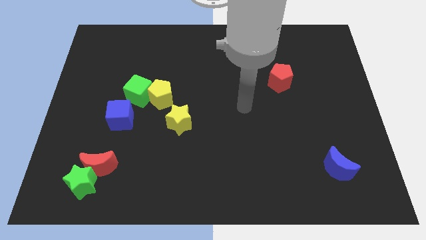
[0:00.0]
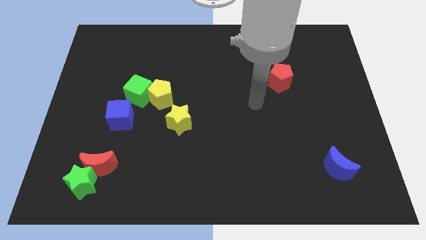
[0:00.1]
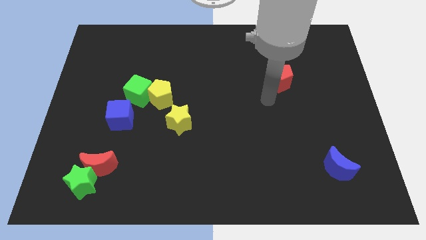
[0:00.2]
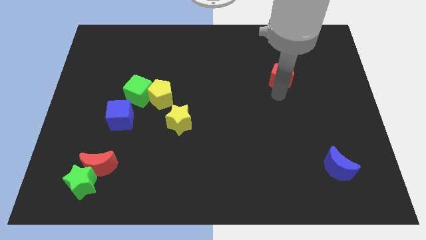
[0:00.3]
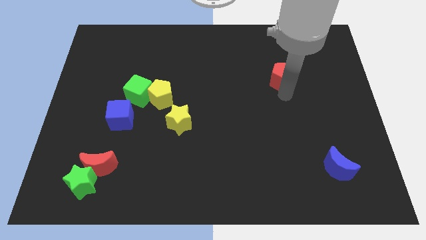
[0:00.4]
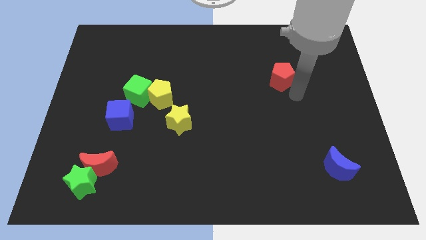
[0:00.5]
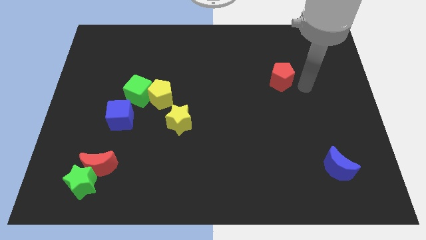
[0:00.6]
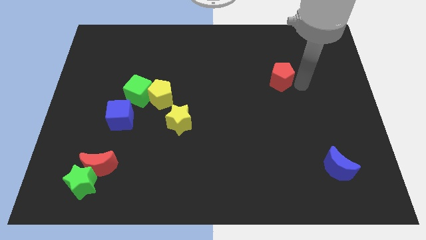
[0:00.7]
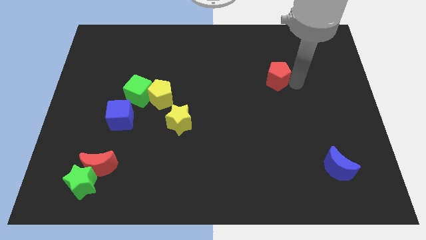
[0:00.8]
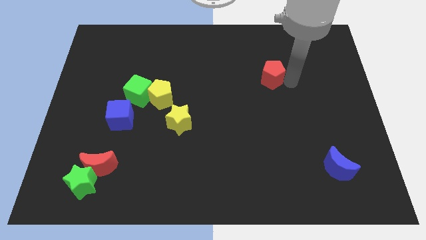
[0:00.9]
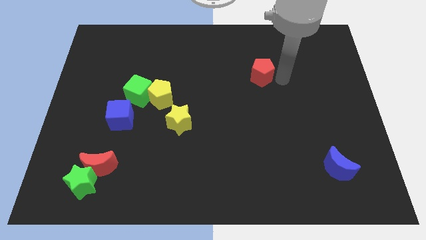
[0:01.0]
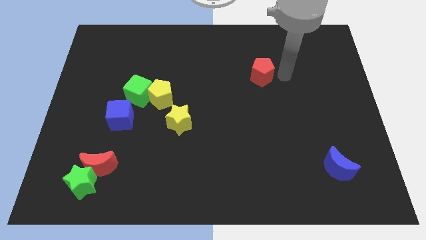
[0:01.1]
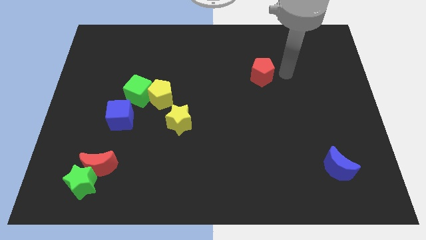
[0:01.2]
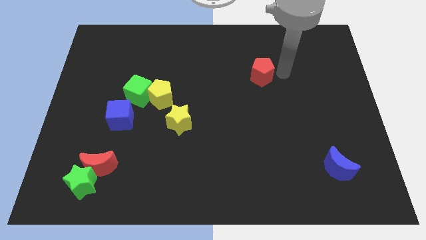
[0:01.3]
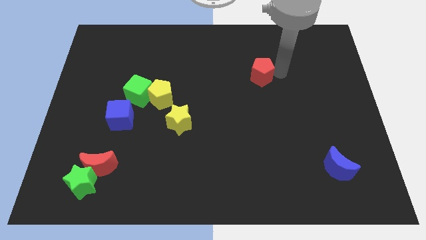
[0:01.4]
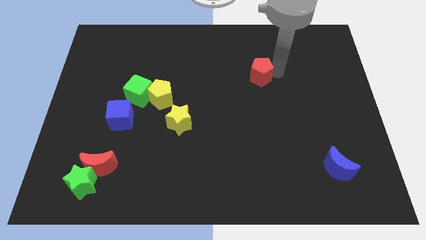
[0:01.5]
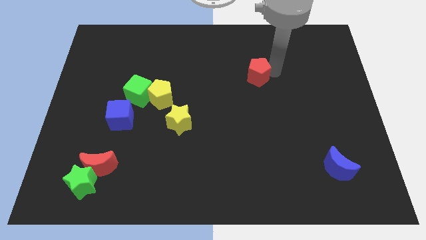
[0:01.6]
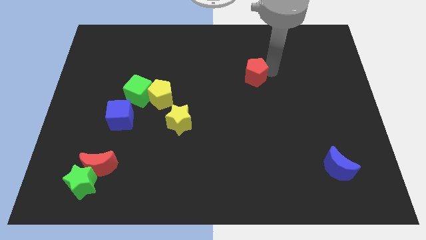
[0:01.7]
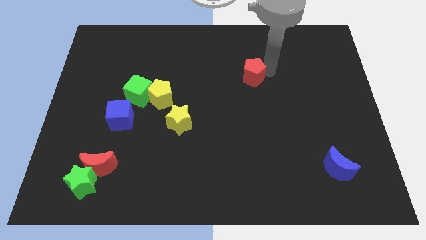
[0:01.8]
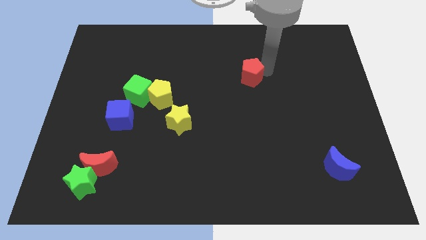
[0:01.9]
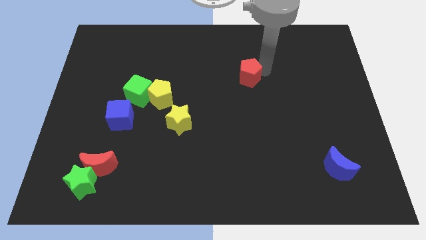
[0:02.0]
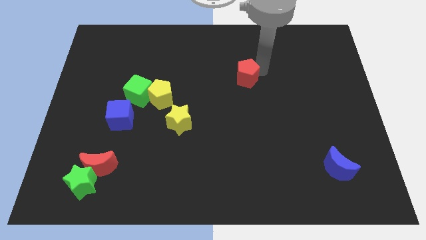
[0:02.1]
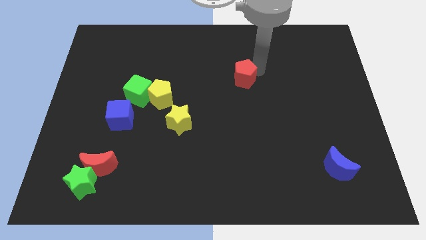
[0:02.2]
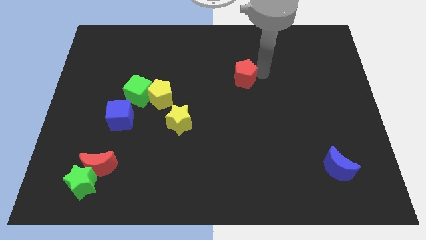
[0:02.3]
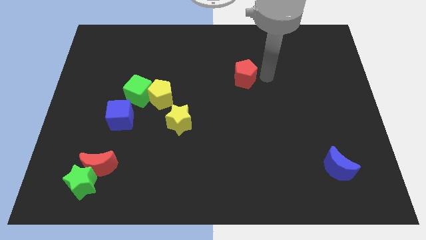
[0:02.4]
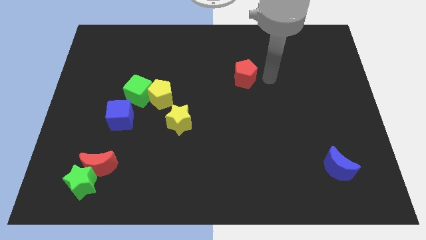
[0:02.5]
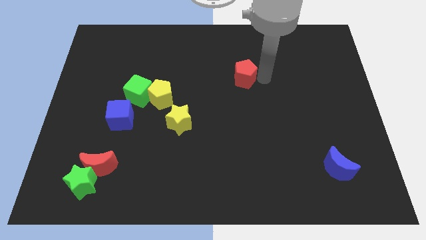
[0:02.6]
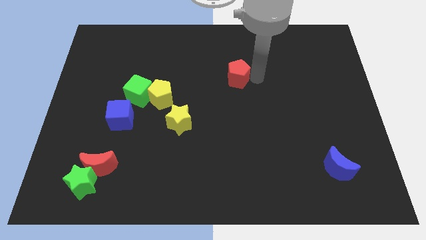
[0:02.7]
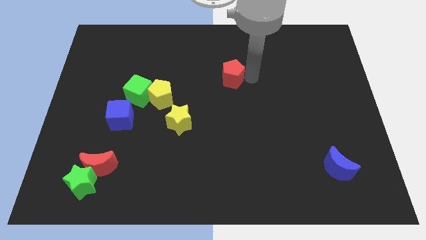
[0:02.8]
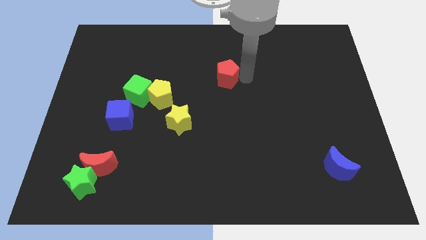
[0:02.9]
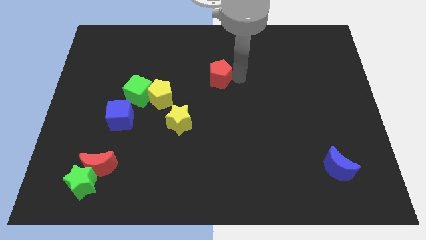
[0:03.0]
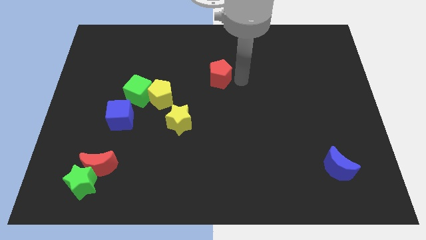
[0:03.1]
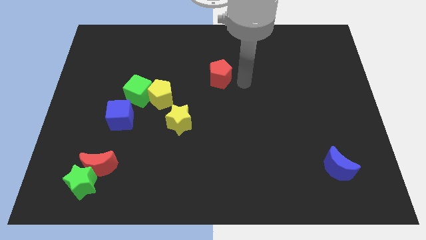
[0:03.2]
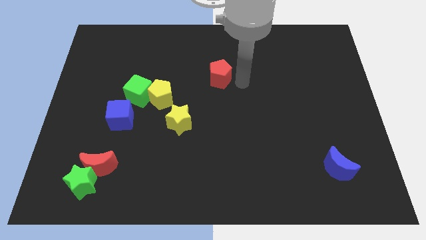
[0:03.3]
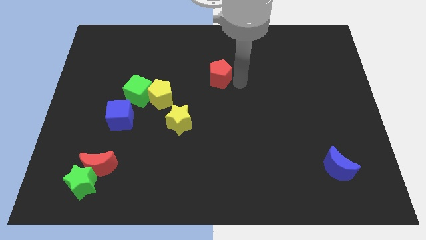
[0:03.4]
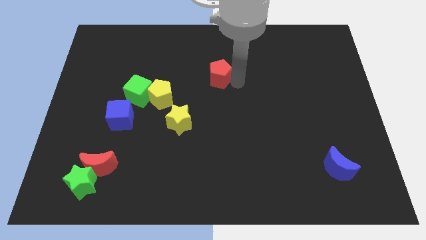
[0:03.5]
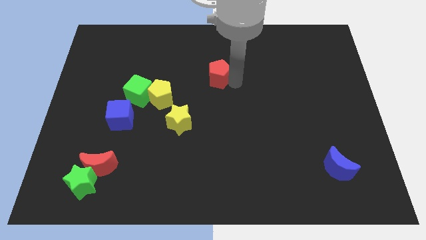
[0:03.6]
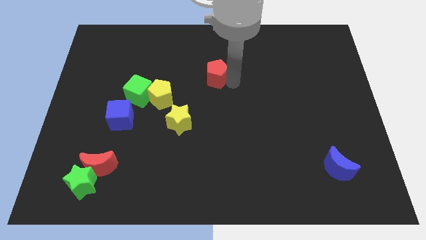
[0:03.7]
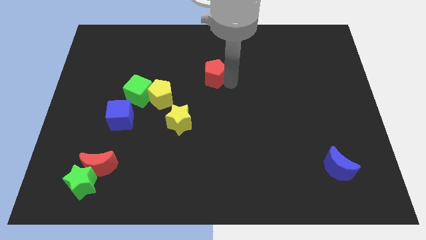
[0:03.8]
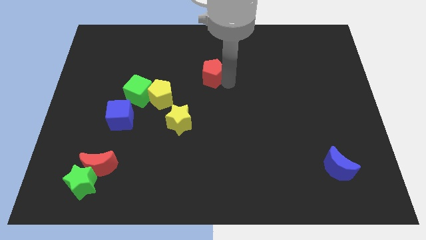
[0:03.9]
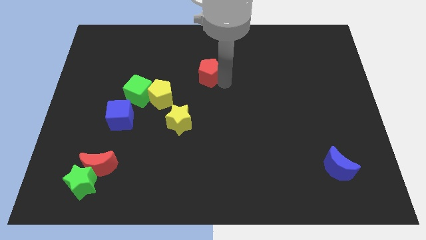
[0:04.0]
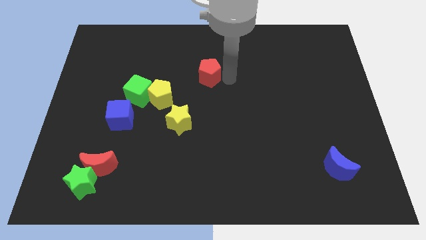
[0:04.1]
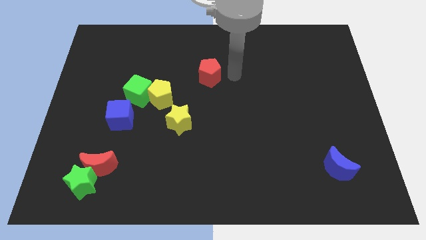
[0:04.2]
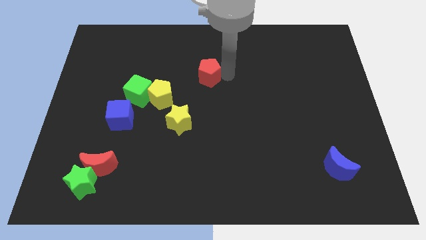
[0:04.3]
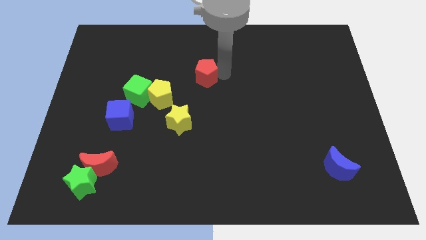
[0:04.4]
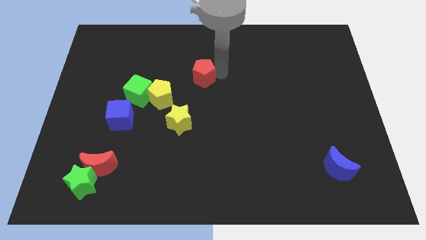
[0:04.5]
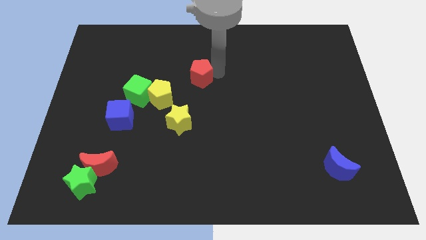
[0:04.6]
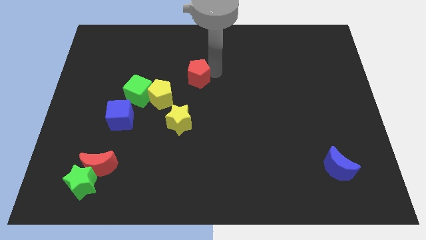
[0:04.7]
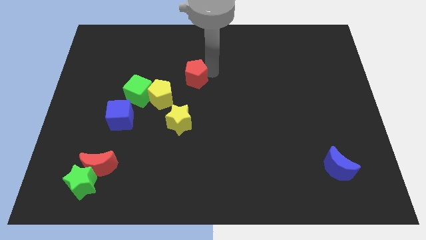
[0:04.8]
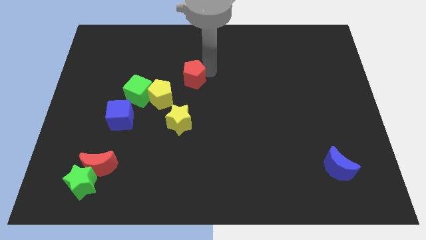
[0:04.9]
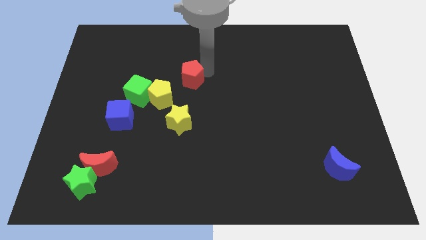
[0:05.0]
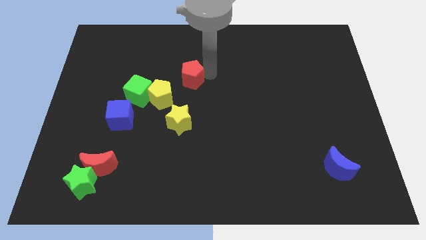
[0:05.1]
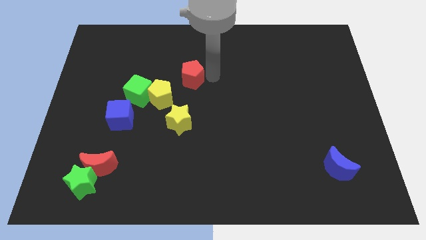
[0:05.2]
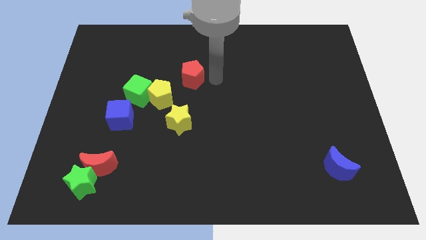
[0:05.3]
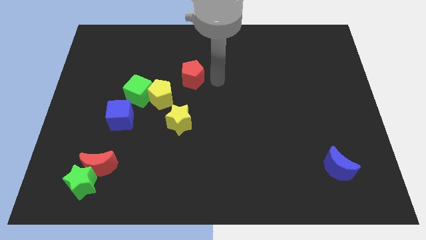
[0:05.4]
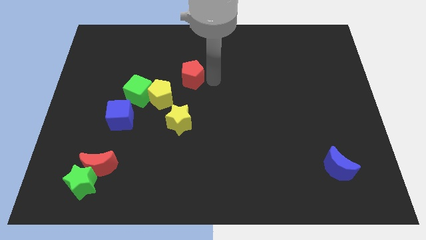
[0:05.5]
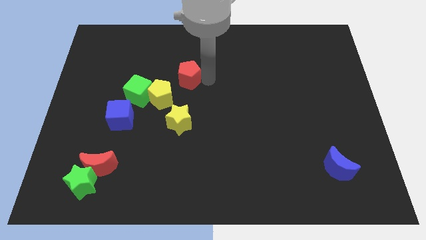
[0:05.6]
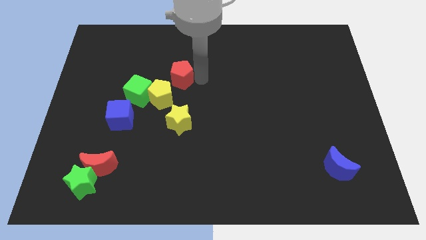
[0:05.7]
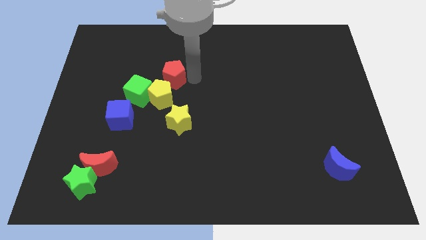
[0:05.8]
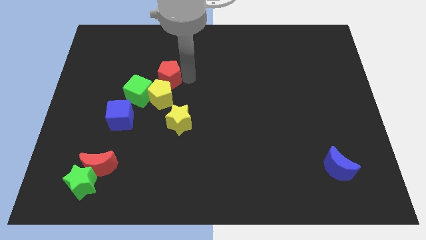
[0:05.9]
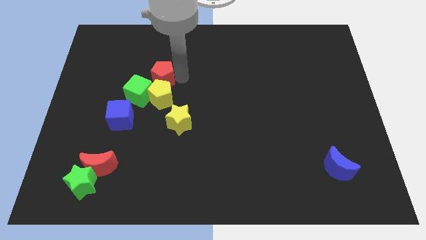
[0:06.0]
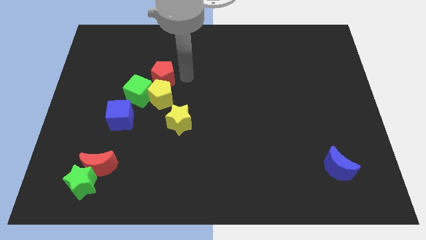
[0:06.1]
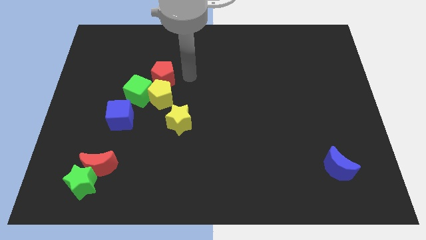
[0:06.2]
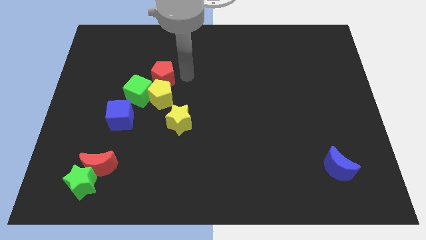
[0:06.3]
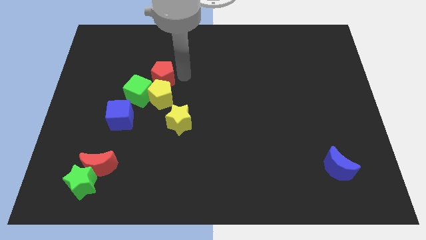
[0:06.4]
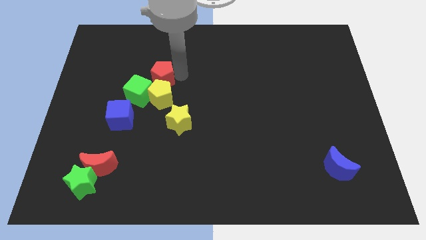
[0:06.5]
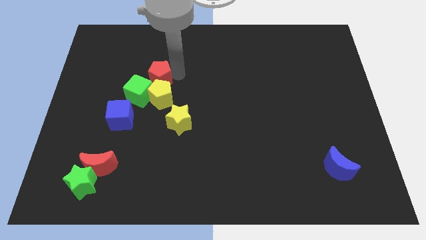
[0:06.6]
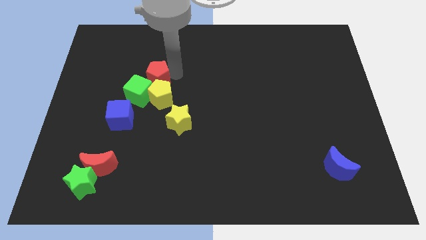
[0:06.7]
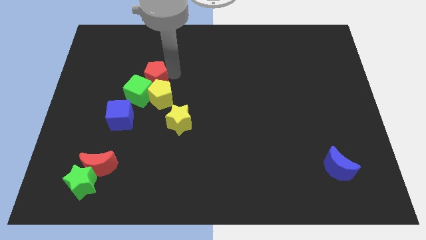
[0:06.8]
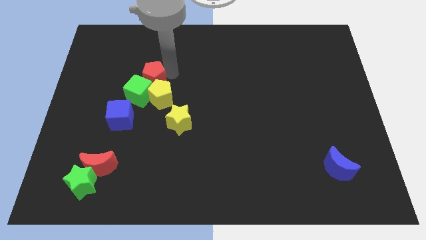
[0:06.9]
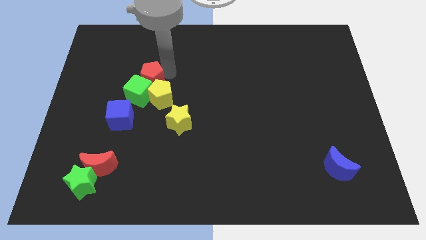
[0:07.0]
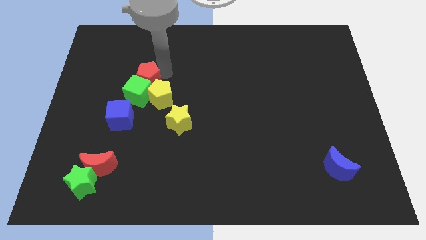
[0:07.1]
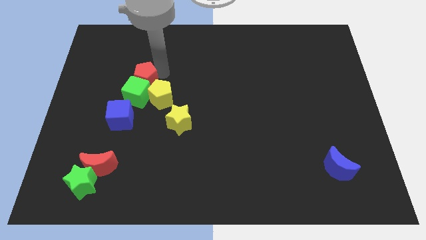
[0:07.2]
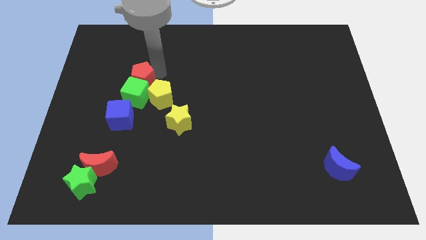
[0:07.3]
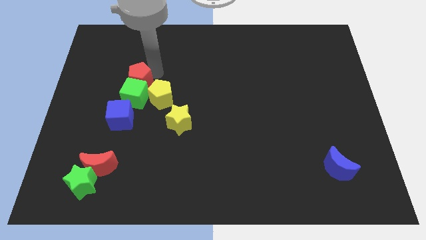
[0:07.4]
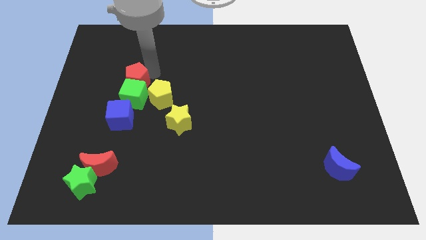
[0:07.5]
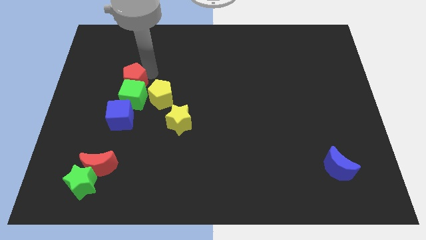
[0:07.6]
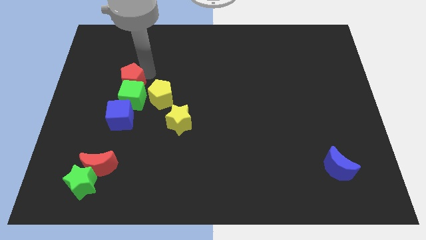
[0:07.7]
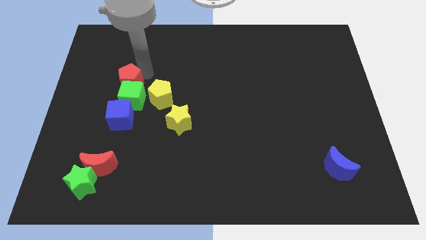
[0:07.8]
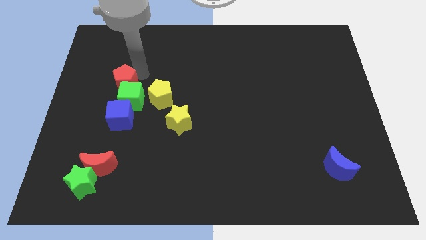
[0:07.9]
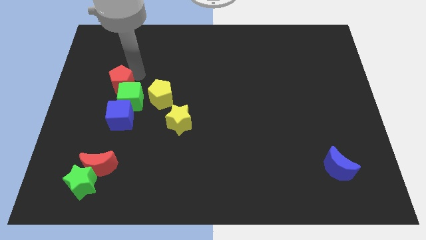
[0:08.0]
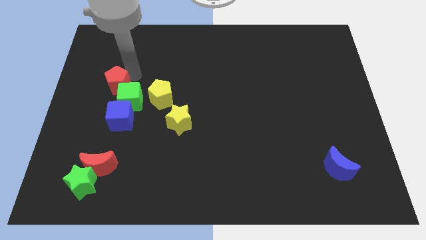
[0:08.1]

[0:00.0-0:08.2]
put the red pentagon left of the green cube
